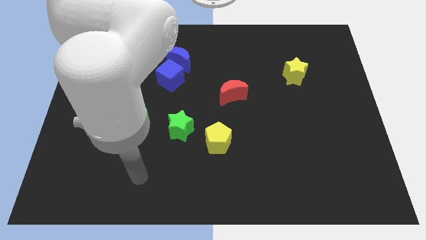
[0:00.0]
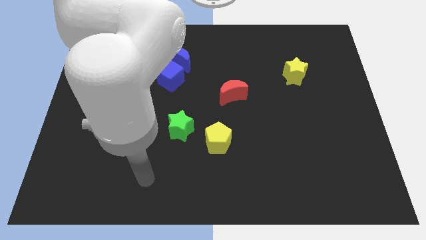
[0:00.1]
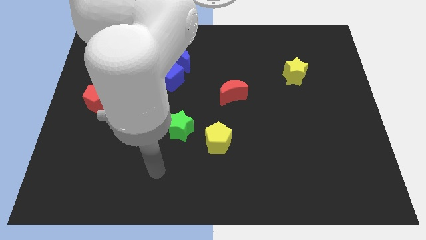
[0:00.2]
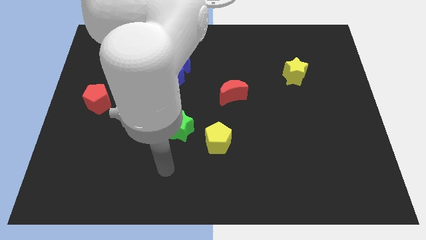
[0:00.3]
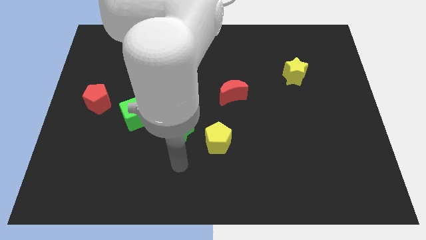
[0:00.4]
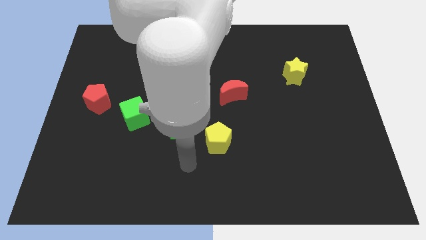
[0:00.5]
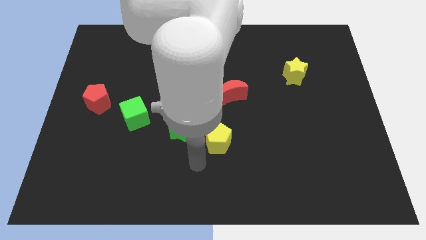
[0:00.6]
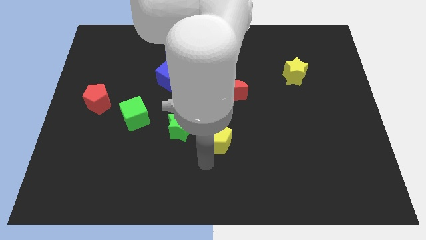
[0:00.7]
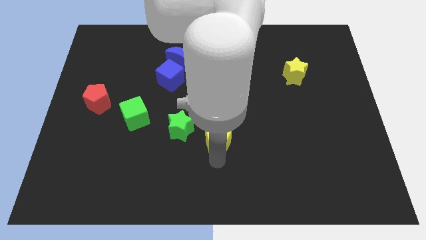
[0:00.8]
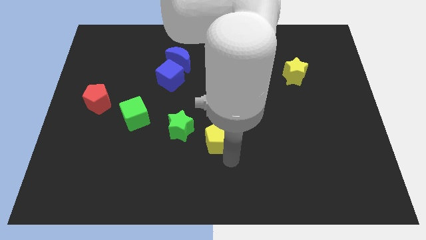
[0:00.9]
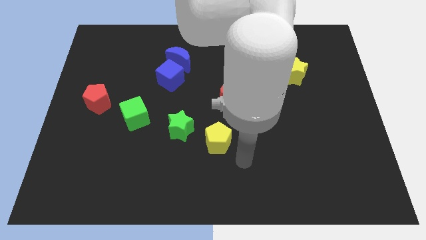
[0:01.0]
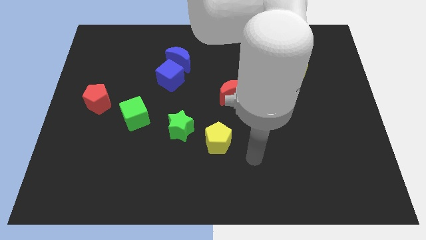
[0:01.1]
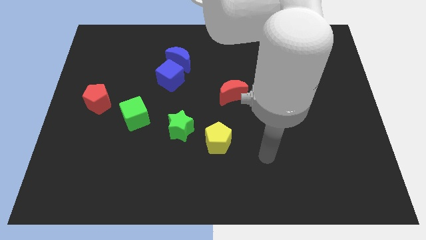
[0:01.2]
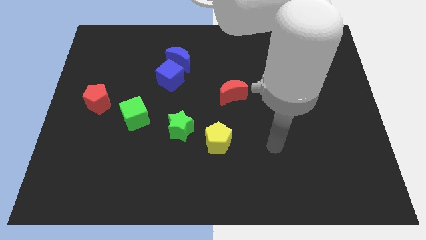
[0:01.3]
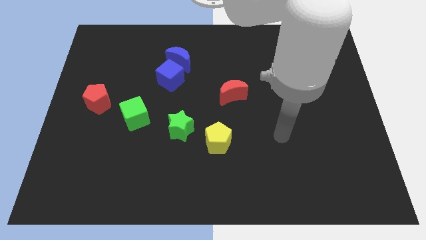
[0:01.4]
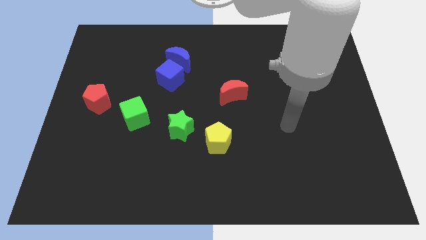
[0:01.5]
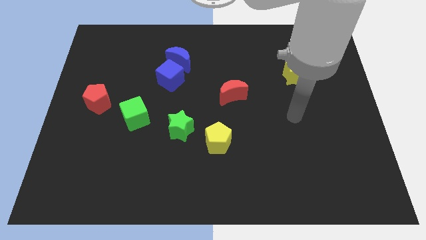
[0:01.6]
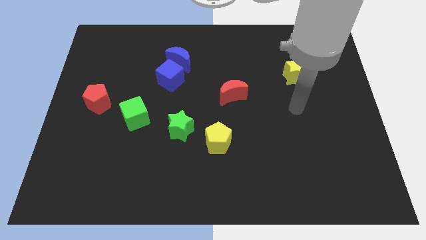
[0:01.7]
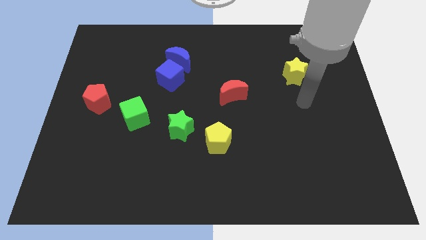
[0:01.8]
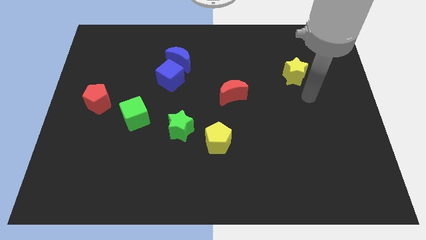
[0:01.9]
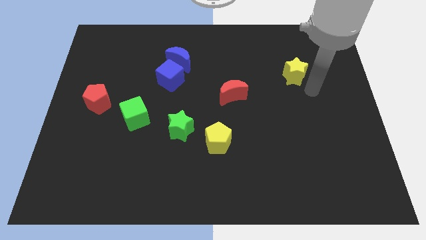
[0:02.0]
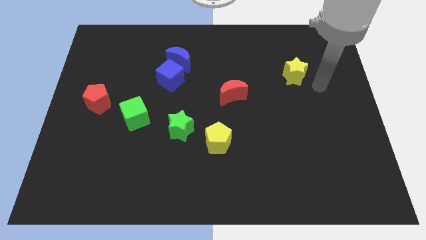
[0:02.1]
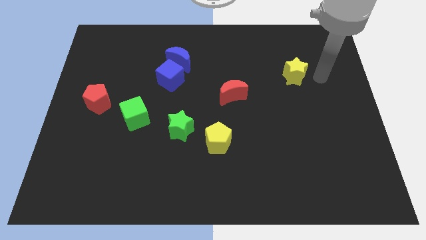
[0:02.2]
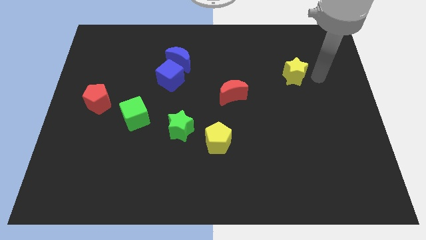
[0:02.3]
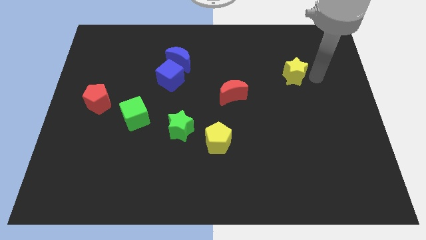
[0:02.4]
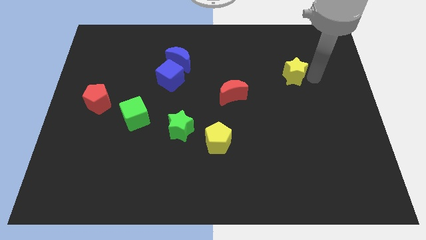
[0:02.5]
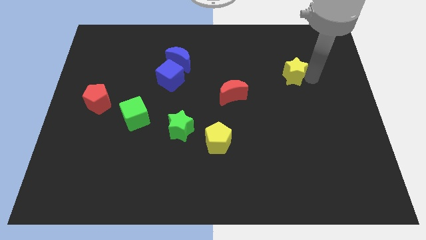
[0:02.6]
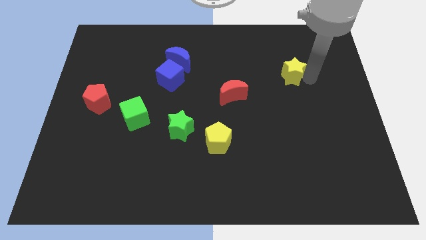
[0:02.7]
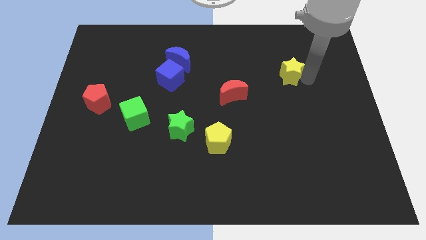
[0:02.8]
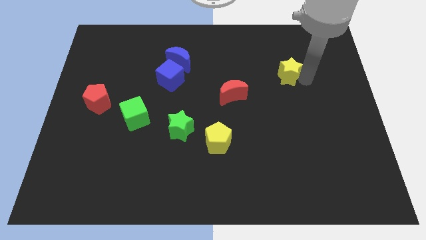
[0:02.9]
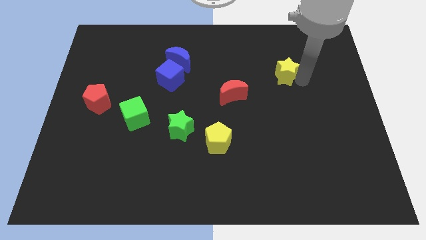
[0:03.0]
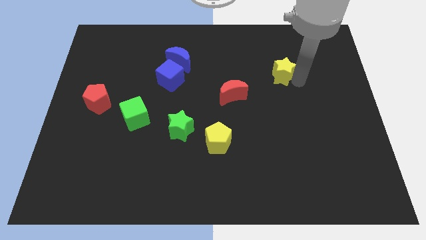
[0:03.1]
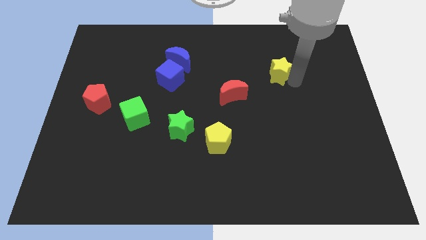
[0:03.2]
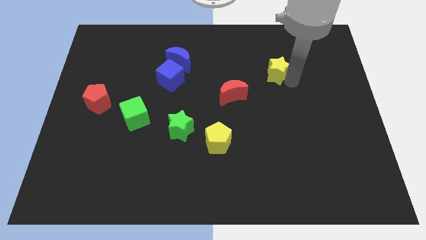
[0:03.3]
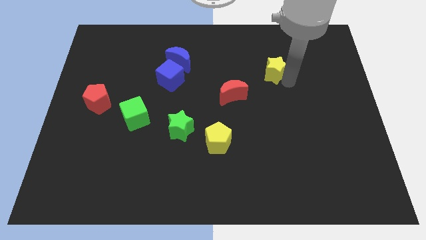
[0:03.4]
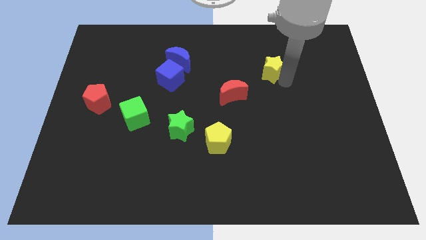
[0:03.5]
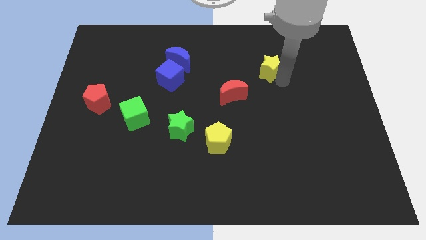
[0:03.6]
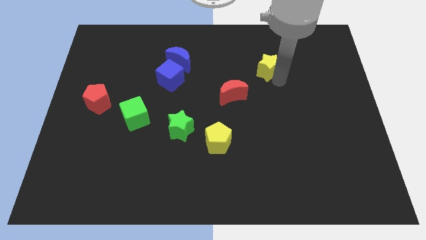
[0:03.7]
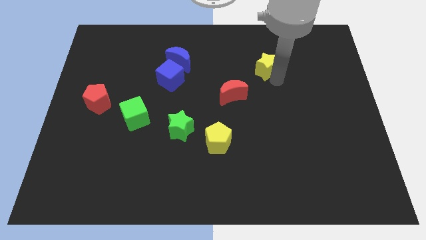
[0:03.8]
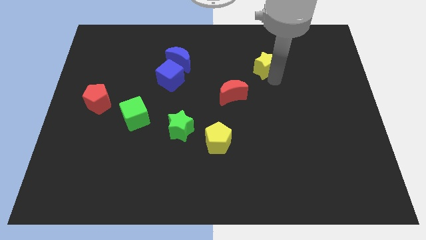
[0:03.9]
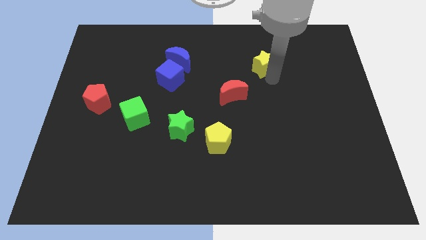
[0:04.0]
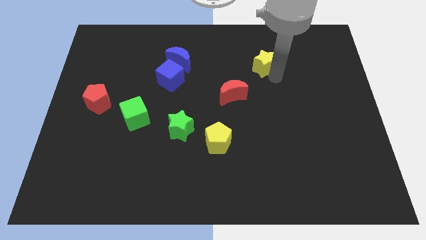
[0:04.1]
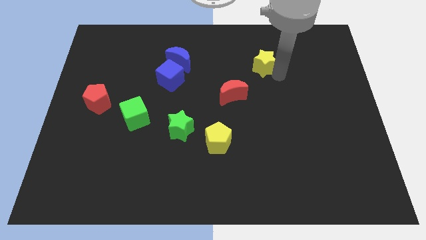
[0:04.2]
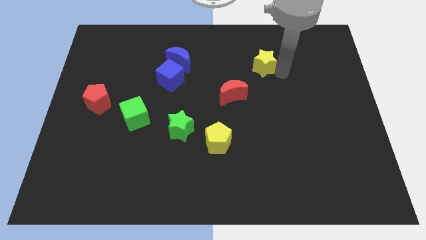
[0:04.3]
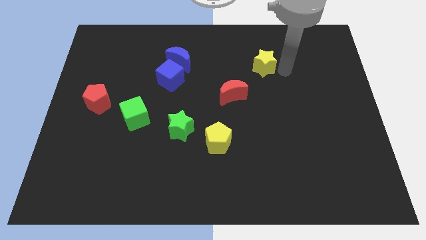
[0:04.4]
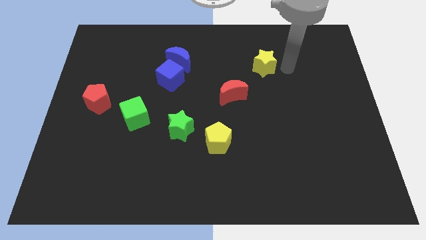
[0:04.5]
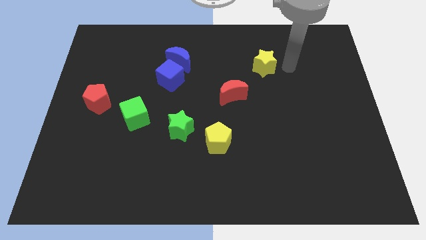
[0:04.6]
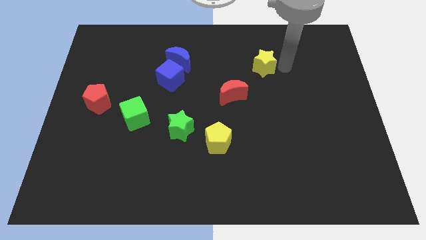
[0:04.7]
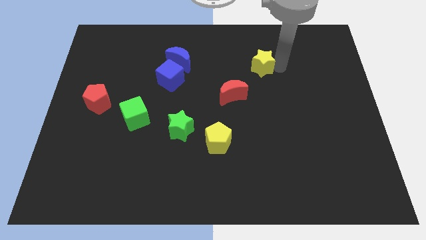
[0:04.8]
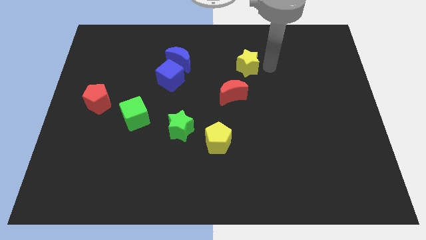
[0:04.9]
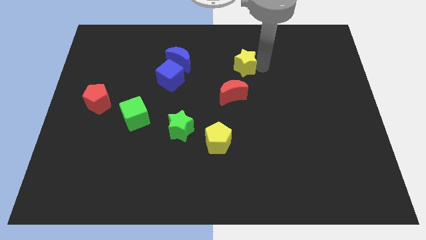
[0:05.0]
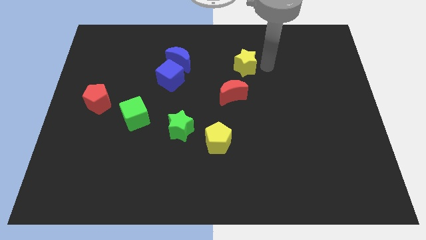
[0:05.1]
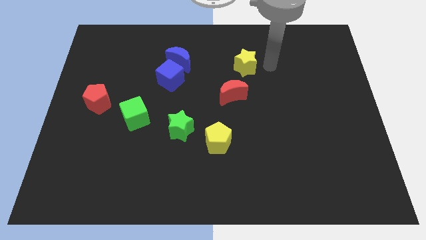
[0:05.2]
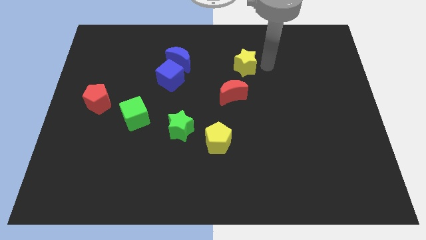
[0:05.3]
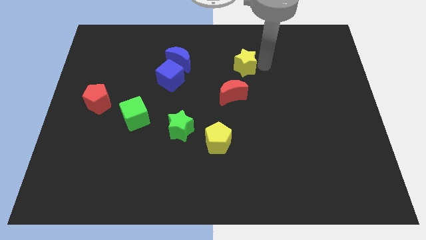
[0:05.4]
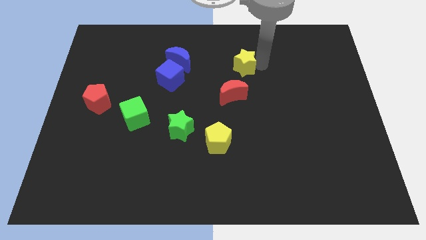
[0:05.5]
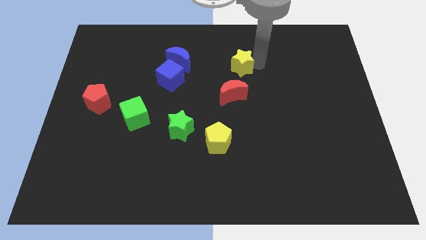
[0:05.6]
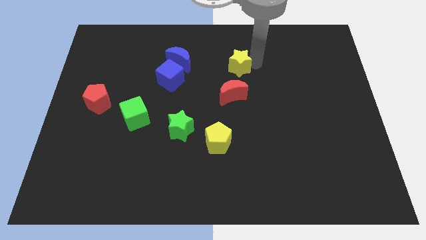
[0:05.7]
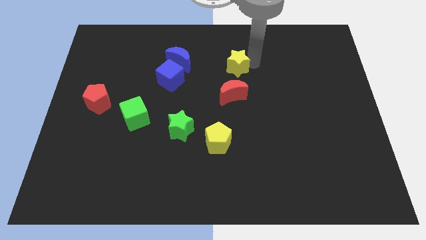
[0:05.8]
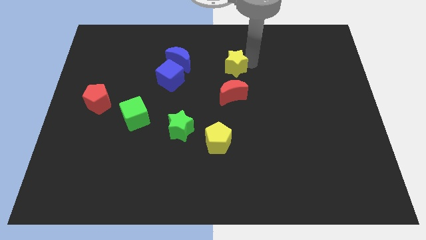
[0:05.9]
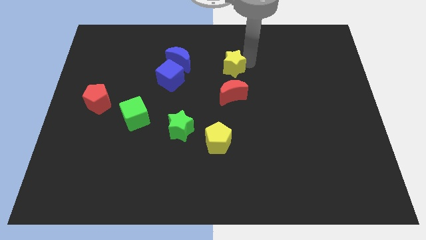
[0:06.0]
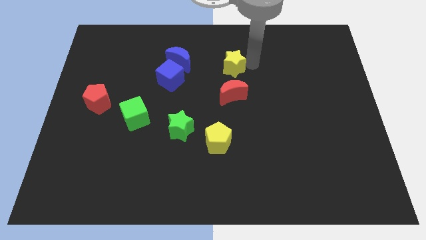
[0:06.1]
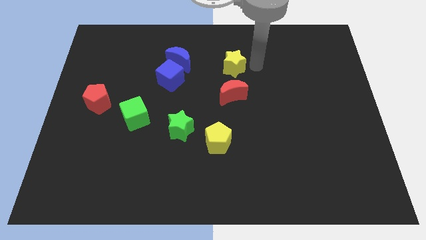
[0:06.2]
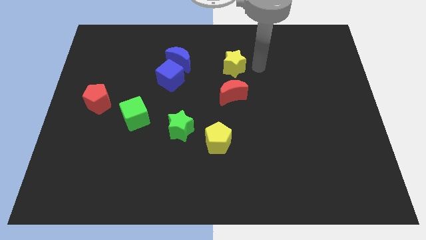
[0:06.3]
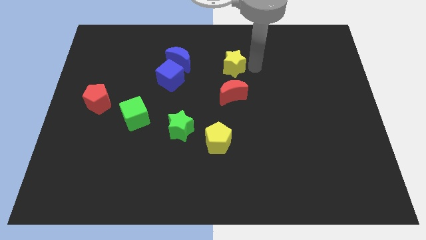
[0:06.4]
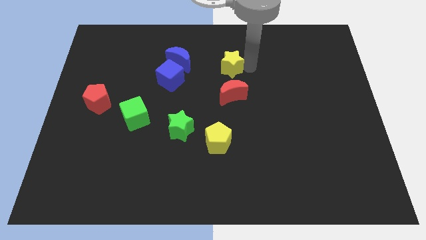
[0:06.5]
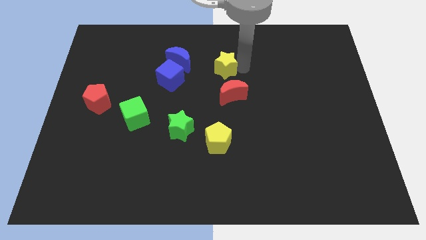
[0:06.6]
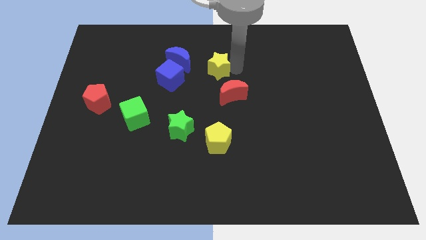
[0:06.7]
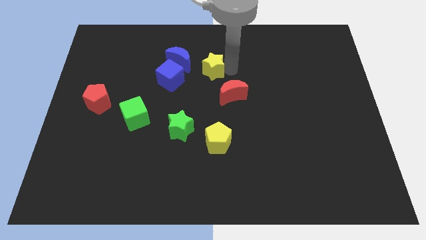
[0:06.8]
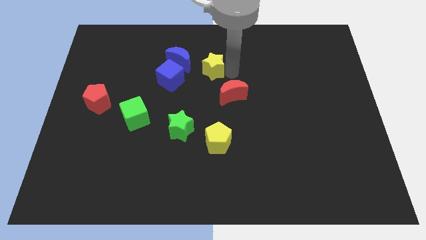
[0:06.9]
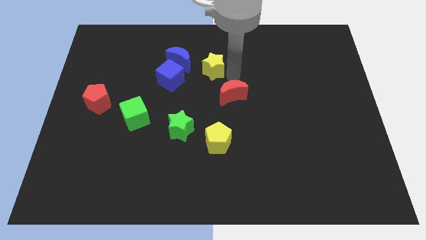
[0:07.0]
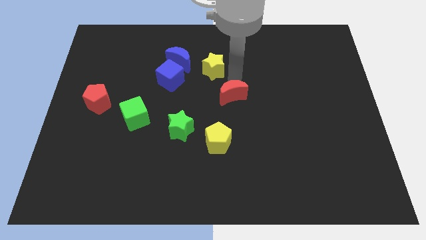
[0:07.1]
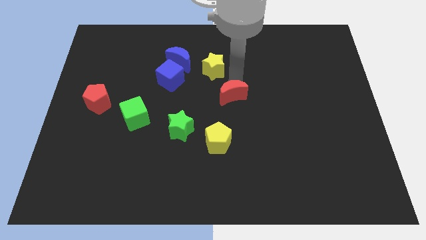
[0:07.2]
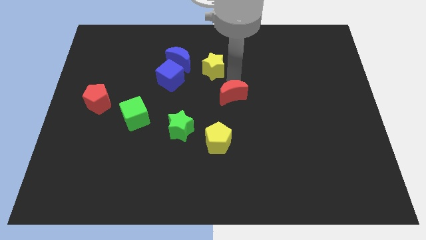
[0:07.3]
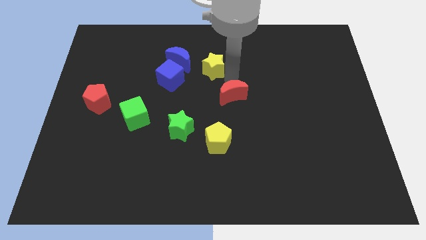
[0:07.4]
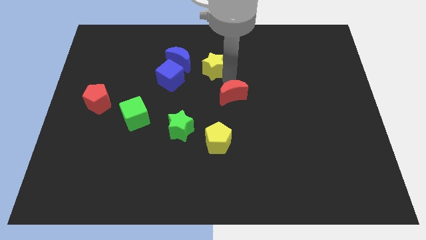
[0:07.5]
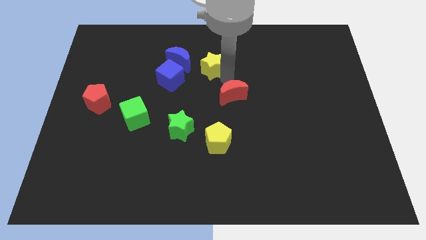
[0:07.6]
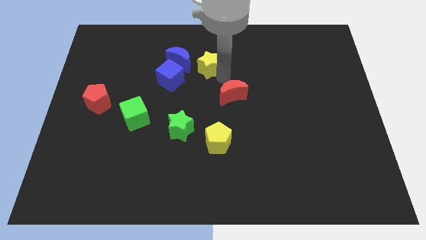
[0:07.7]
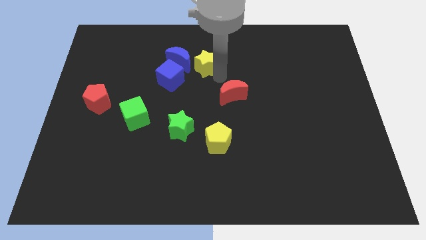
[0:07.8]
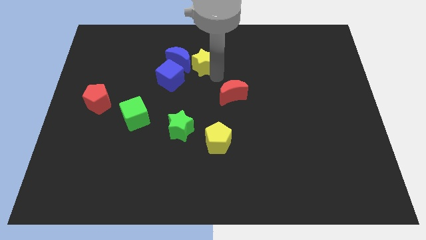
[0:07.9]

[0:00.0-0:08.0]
move the yellow star to the blue moon
